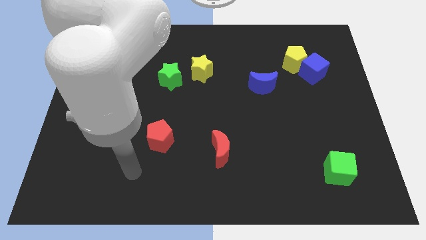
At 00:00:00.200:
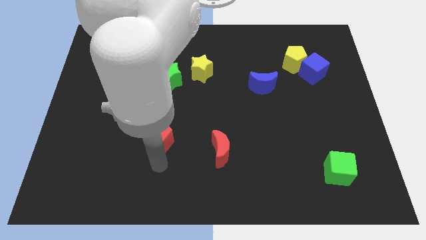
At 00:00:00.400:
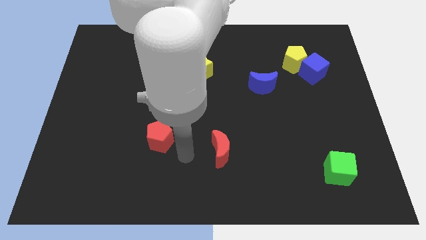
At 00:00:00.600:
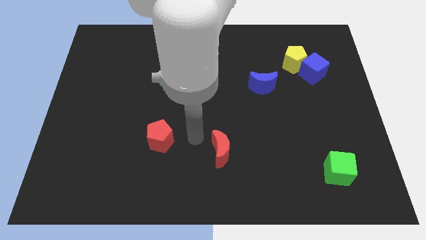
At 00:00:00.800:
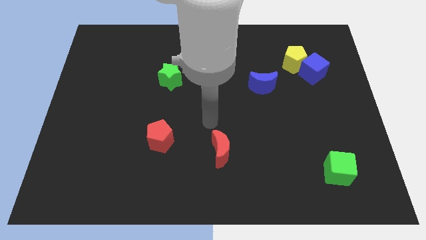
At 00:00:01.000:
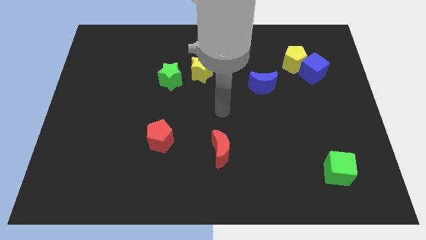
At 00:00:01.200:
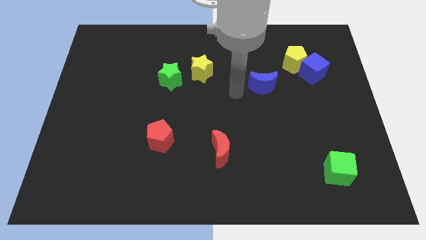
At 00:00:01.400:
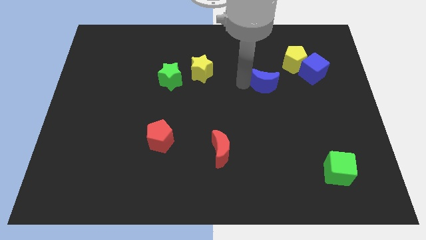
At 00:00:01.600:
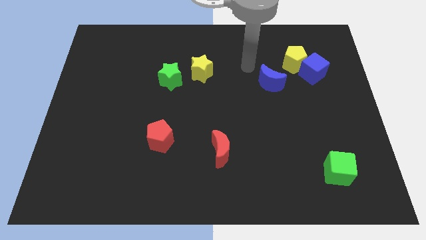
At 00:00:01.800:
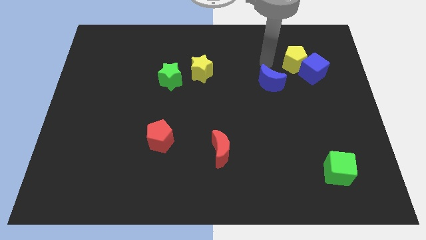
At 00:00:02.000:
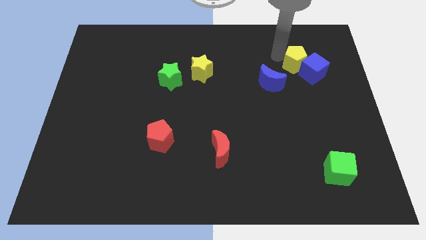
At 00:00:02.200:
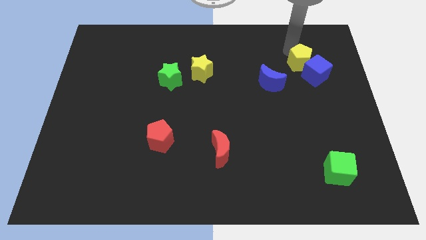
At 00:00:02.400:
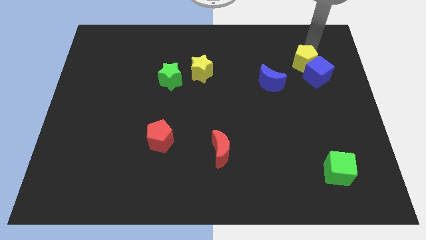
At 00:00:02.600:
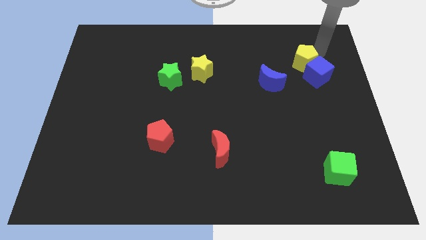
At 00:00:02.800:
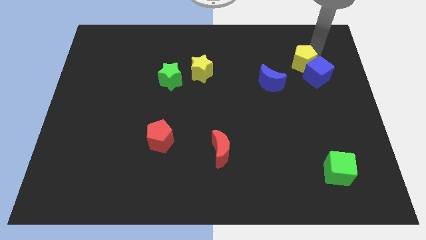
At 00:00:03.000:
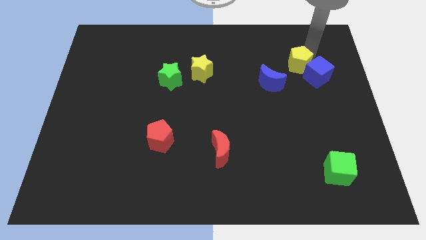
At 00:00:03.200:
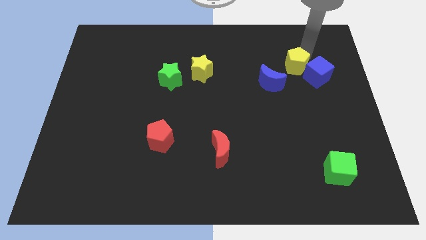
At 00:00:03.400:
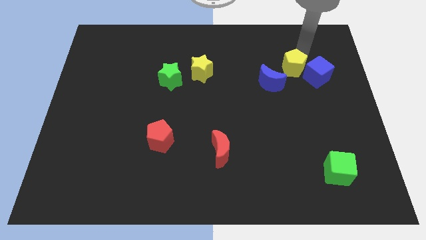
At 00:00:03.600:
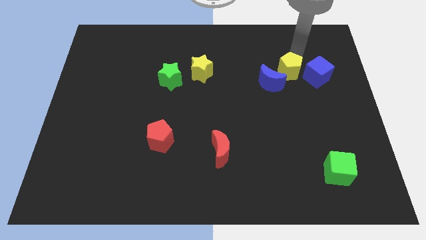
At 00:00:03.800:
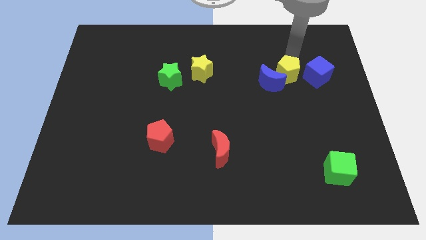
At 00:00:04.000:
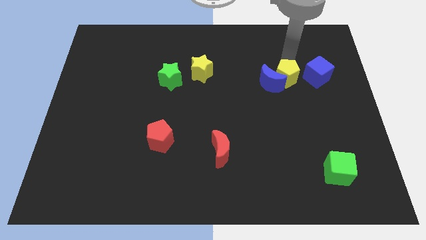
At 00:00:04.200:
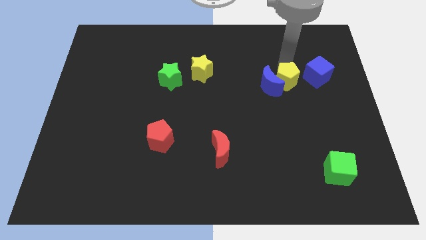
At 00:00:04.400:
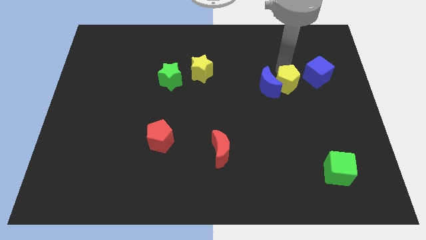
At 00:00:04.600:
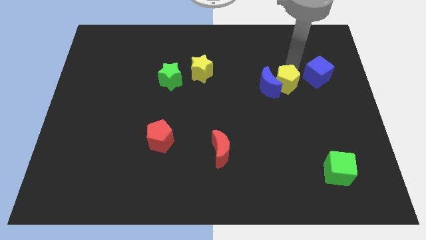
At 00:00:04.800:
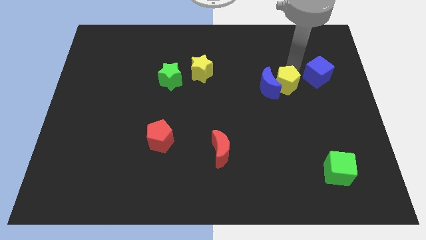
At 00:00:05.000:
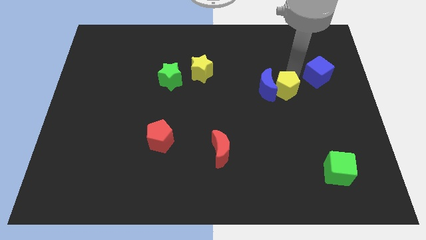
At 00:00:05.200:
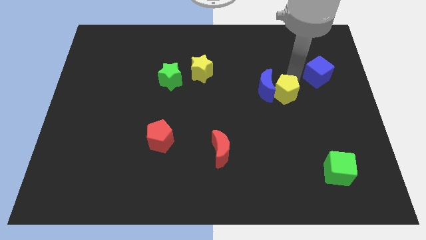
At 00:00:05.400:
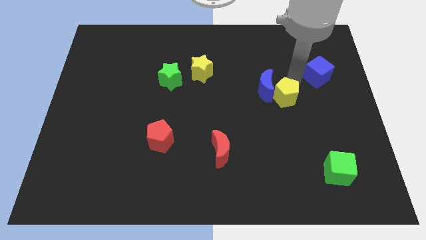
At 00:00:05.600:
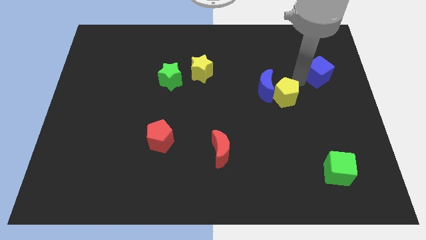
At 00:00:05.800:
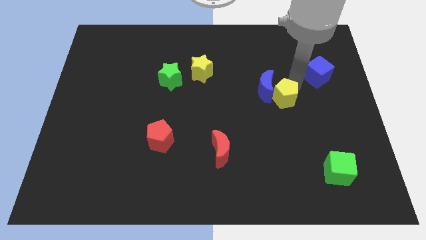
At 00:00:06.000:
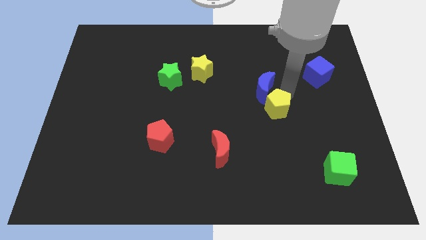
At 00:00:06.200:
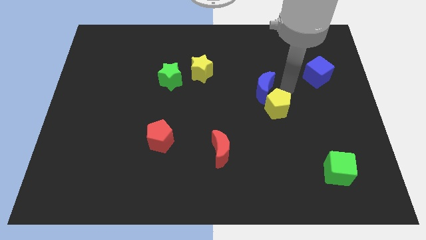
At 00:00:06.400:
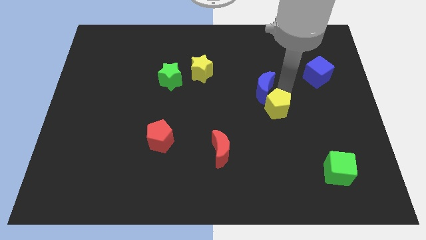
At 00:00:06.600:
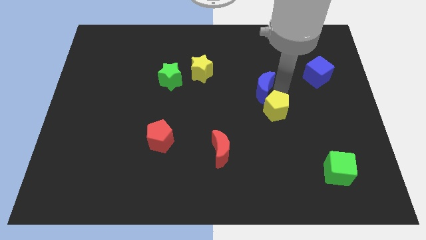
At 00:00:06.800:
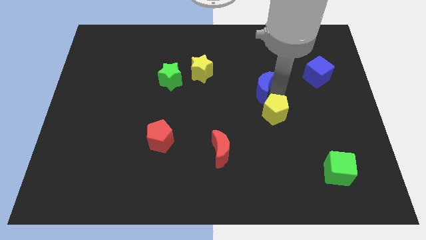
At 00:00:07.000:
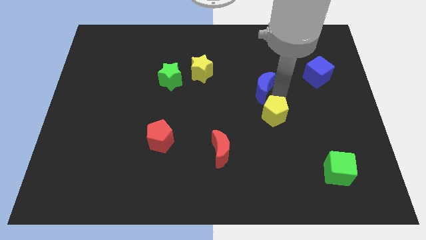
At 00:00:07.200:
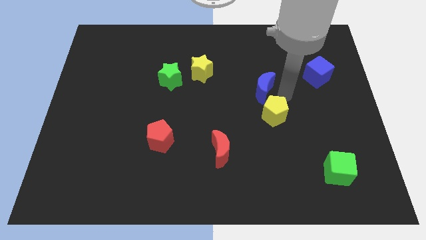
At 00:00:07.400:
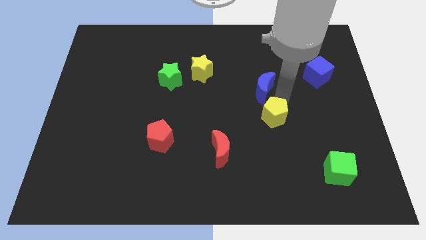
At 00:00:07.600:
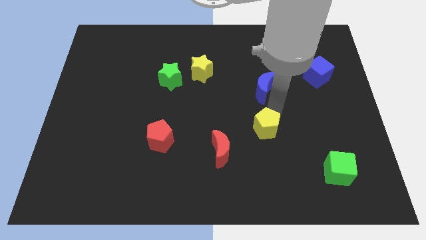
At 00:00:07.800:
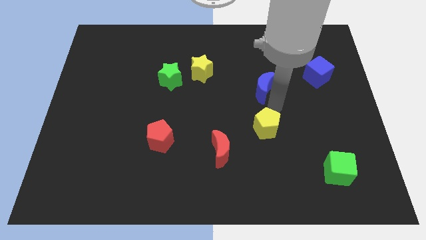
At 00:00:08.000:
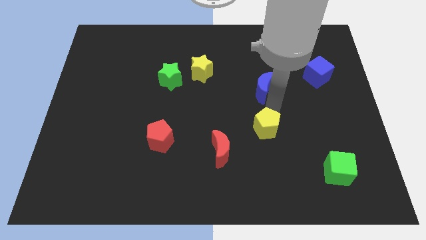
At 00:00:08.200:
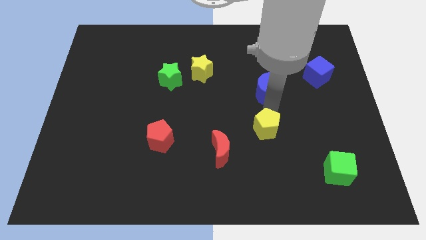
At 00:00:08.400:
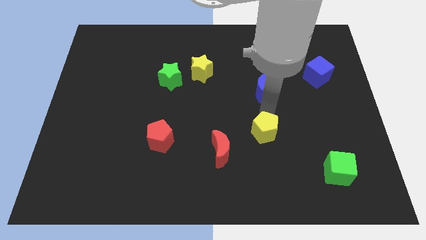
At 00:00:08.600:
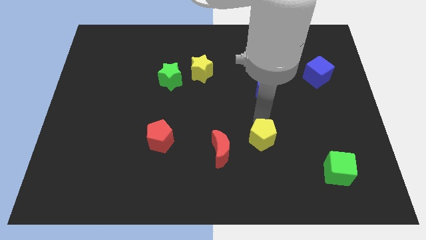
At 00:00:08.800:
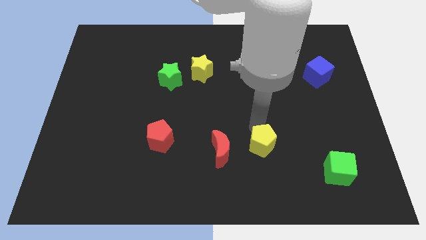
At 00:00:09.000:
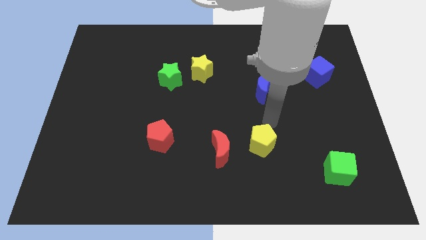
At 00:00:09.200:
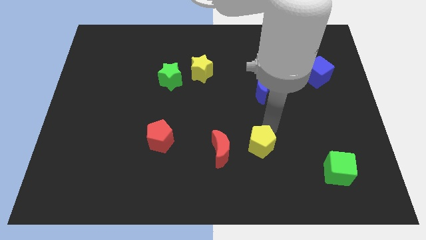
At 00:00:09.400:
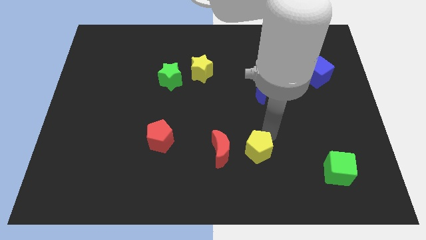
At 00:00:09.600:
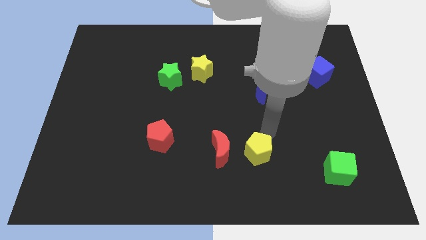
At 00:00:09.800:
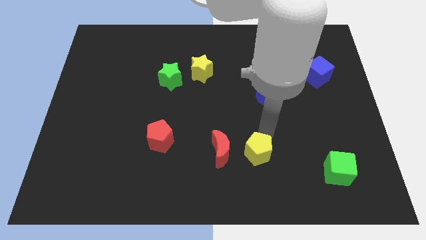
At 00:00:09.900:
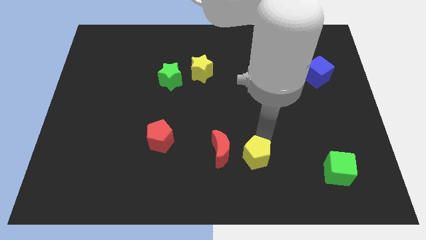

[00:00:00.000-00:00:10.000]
push the yellow pentagon to the bottom right of the red moon

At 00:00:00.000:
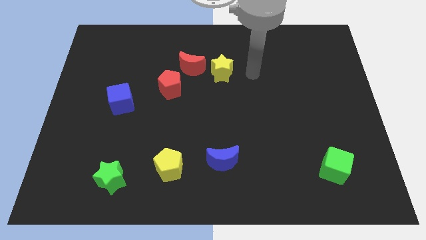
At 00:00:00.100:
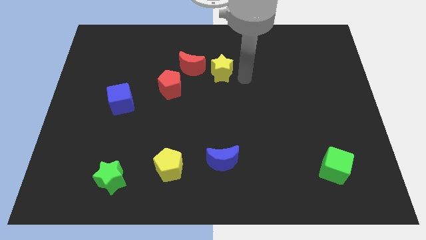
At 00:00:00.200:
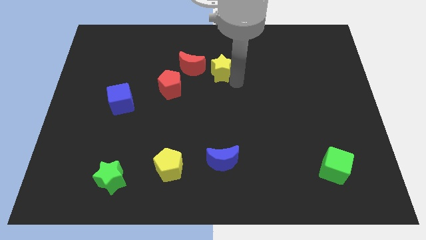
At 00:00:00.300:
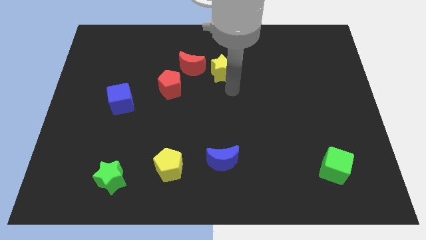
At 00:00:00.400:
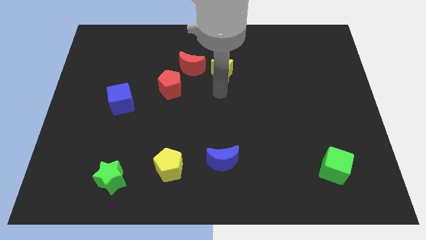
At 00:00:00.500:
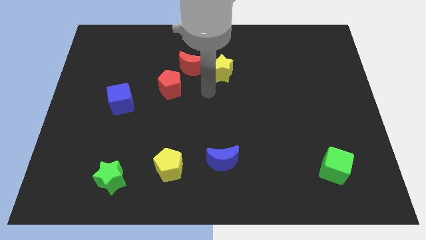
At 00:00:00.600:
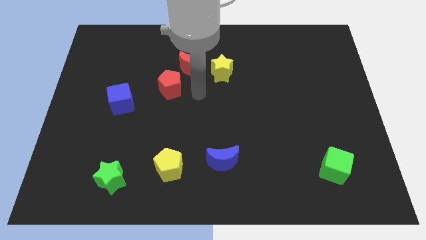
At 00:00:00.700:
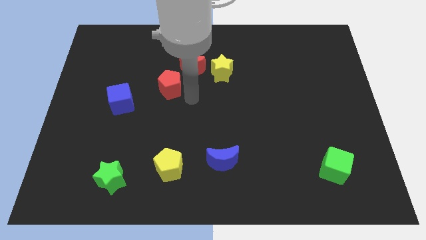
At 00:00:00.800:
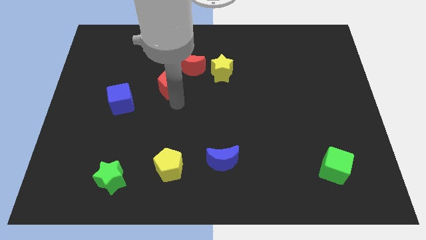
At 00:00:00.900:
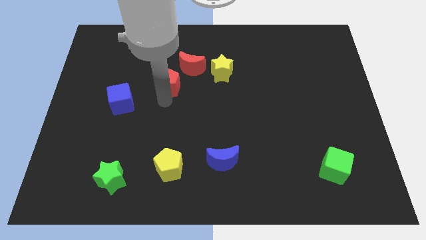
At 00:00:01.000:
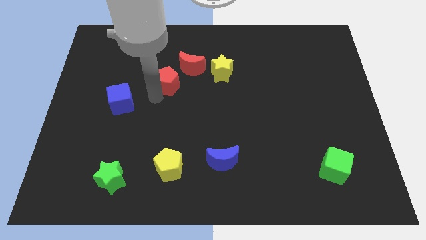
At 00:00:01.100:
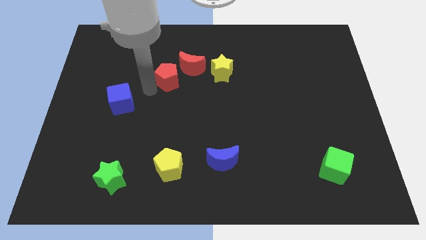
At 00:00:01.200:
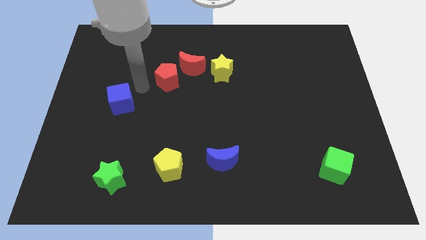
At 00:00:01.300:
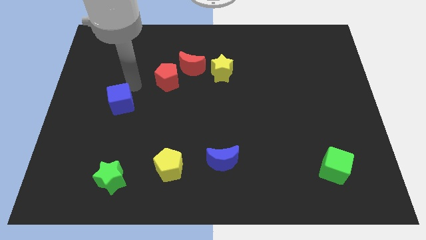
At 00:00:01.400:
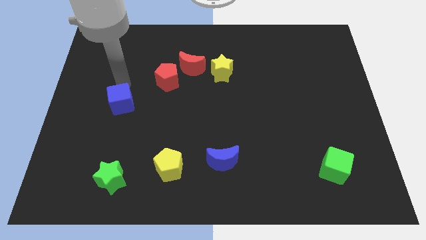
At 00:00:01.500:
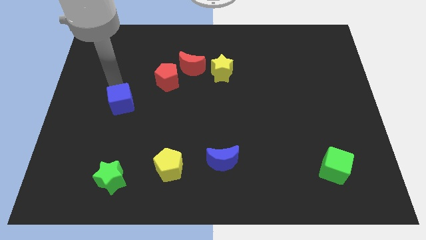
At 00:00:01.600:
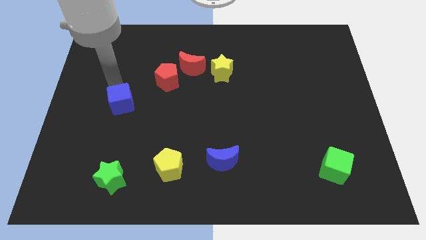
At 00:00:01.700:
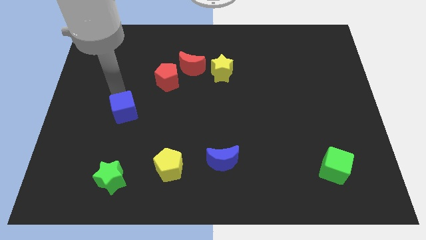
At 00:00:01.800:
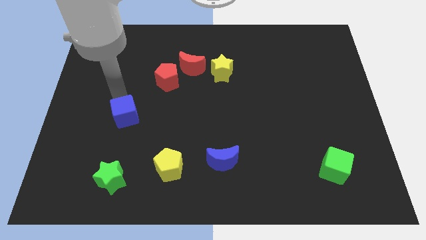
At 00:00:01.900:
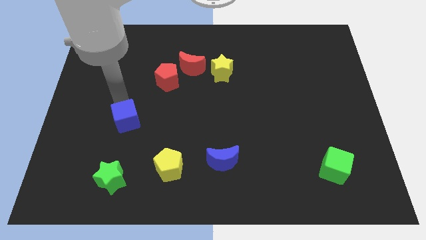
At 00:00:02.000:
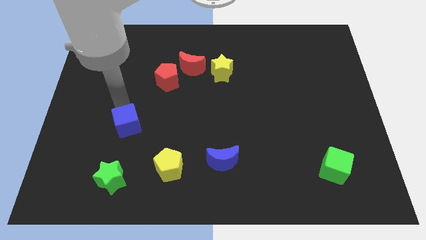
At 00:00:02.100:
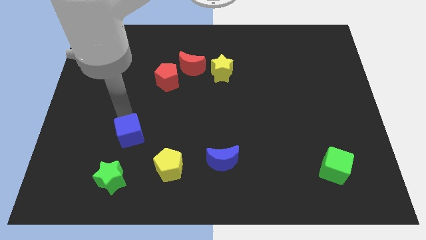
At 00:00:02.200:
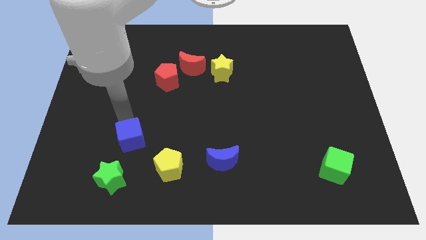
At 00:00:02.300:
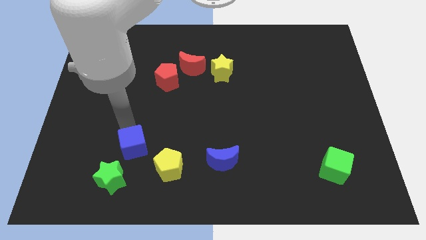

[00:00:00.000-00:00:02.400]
push the blue cube to the top right of the green star
